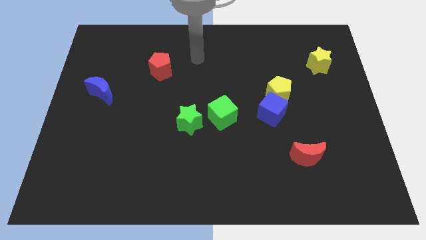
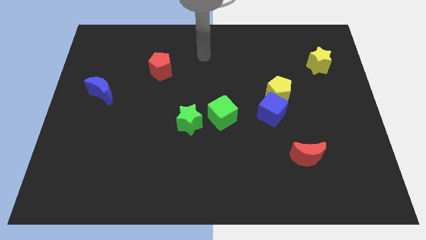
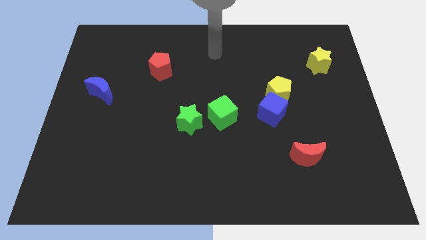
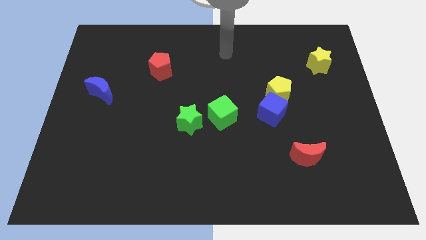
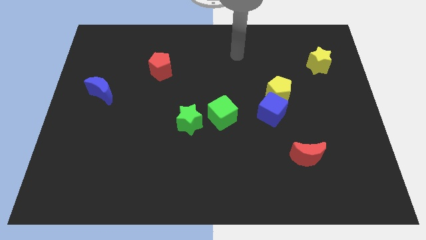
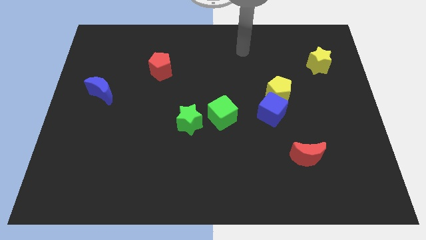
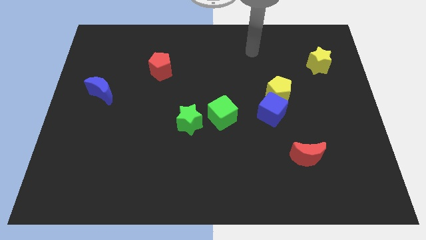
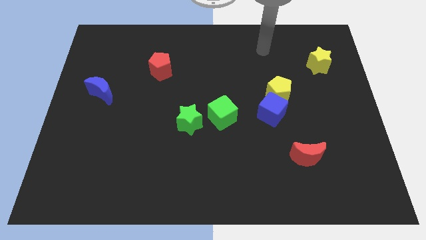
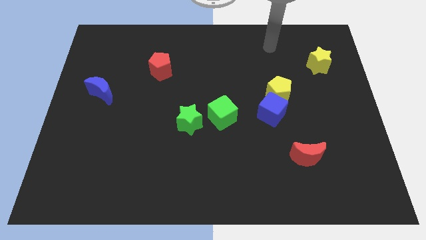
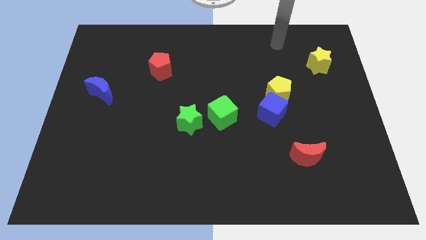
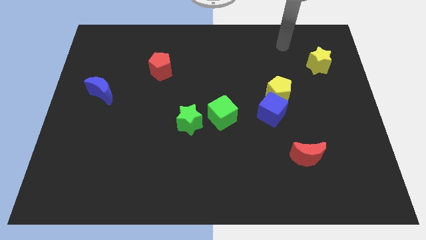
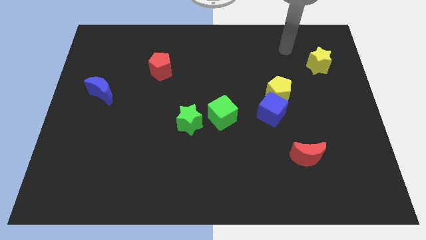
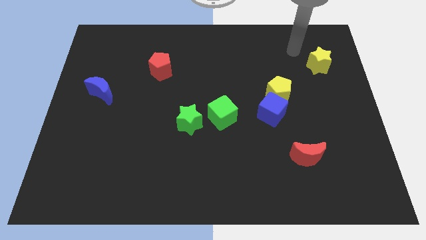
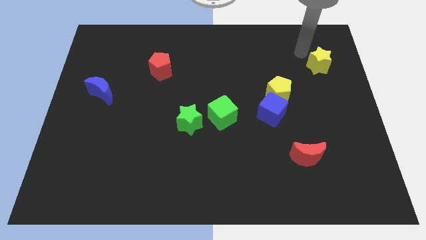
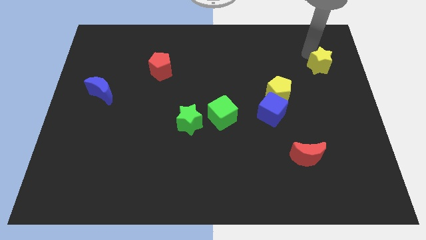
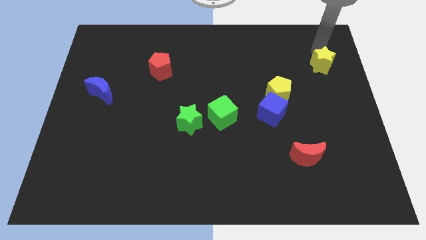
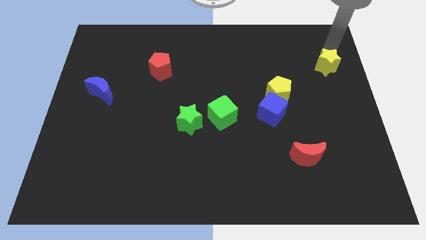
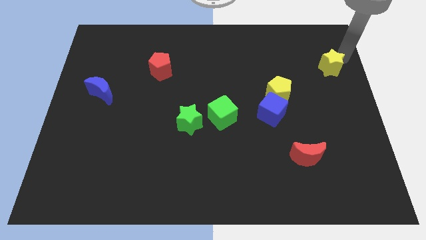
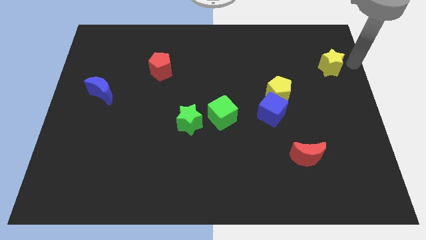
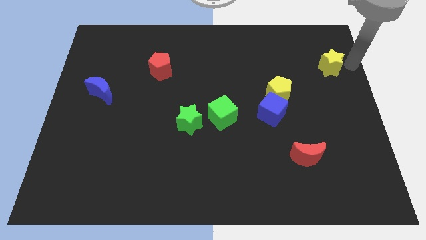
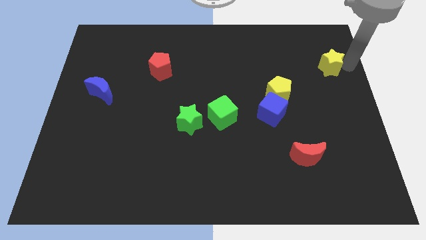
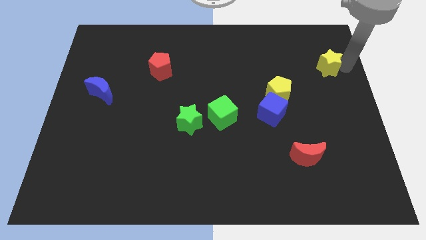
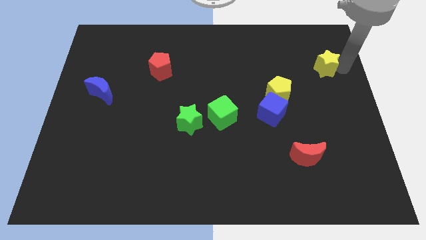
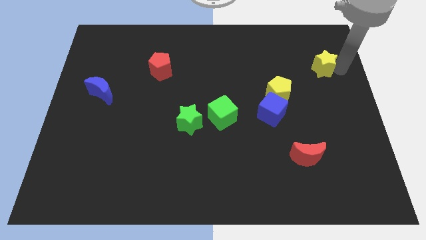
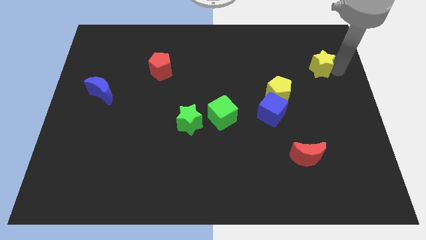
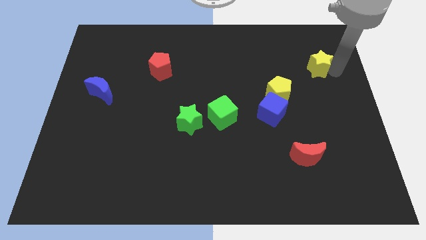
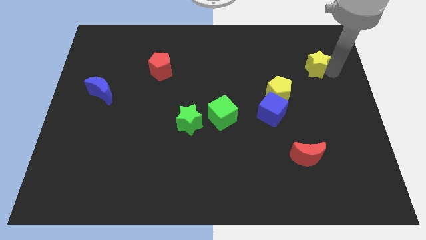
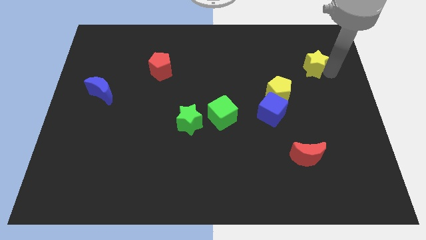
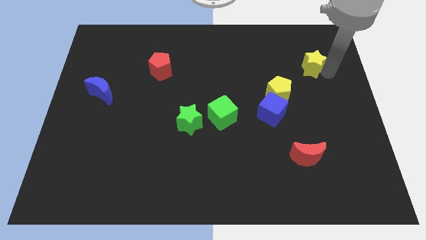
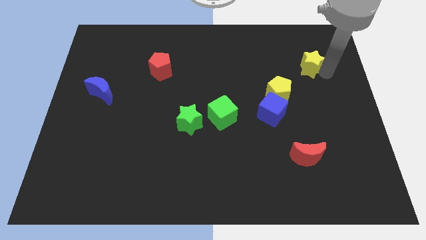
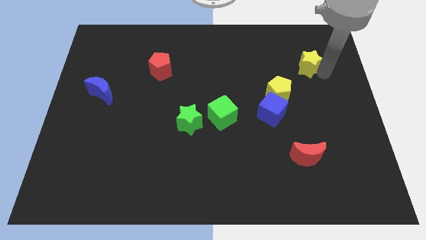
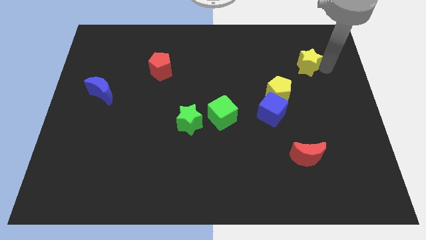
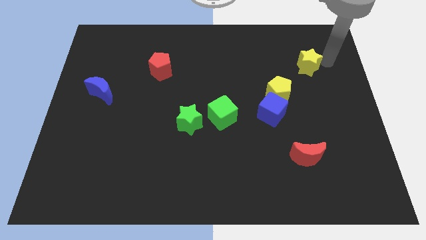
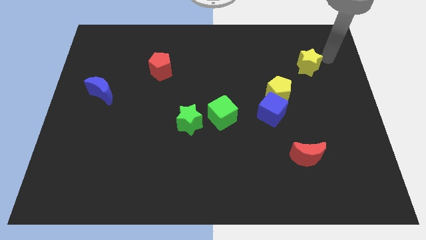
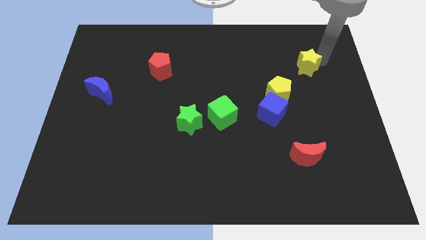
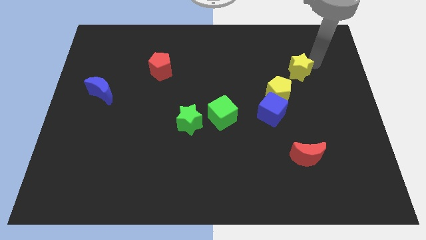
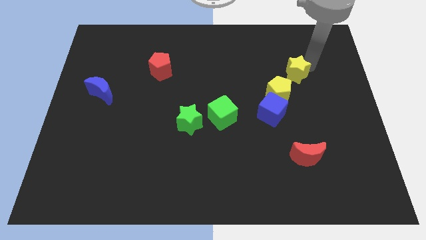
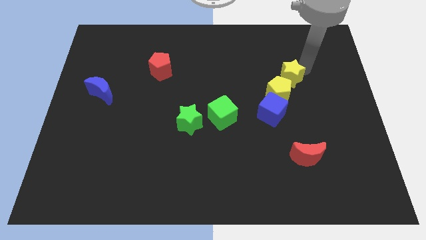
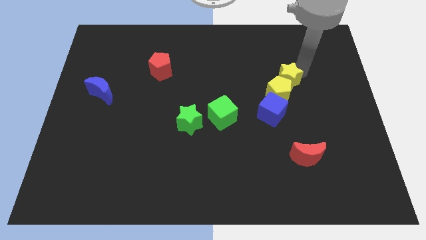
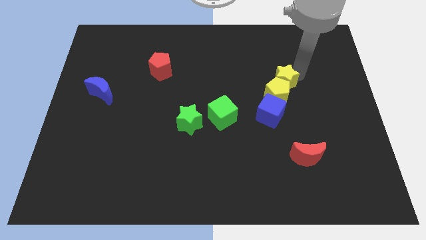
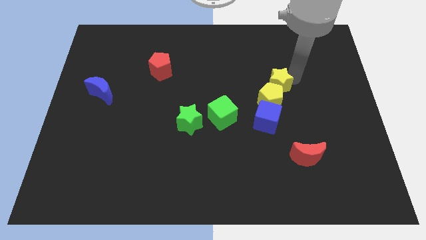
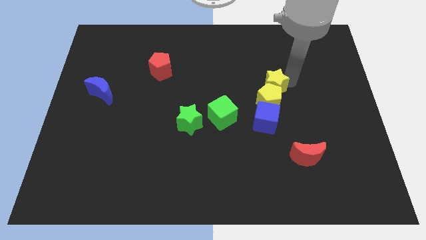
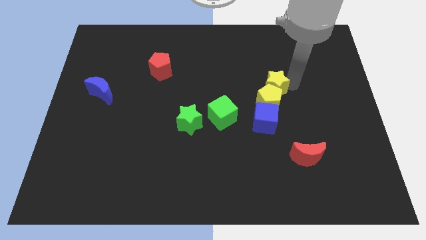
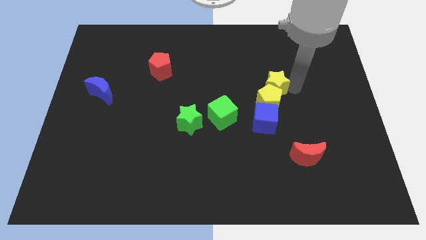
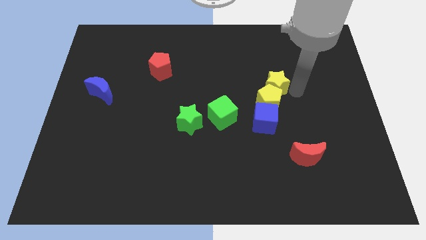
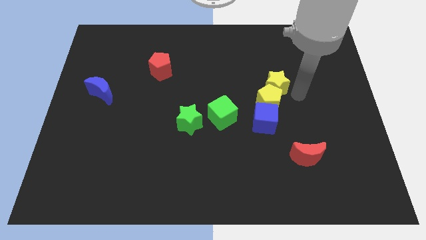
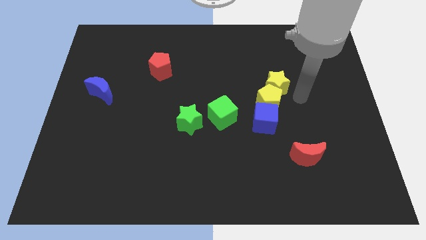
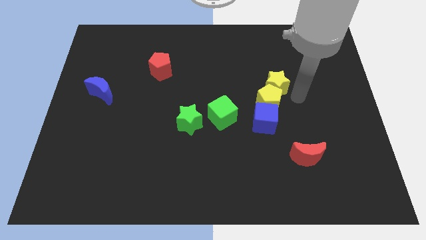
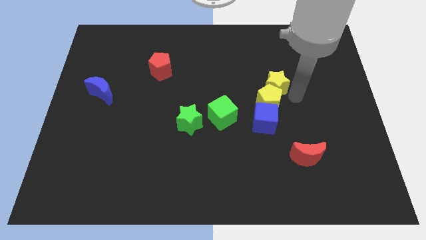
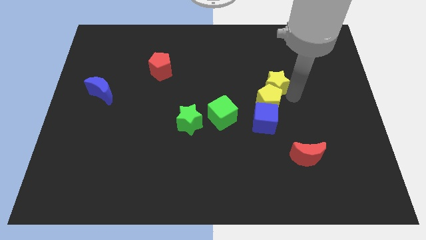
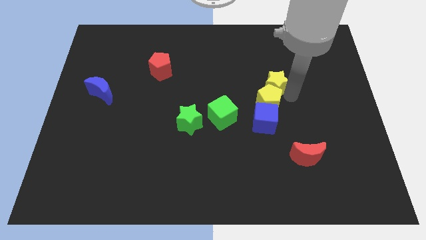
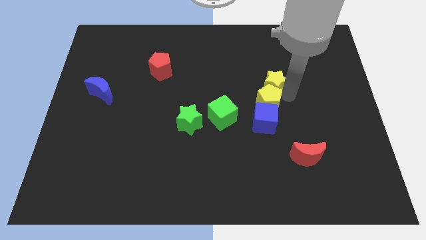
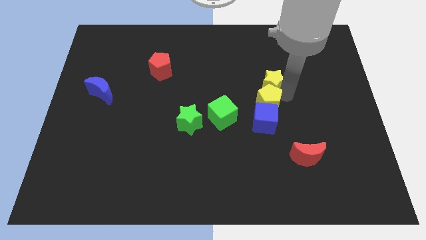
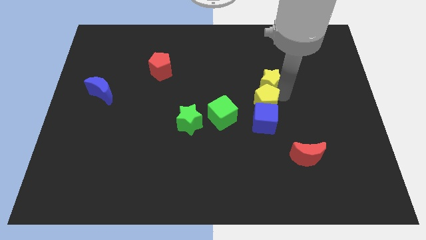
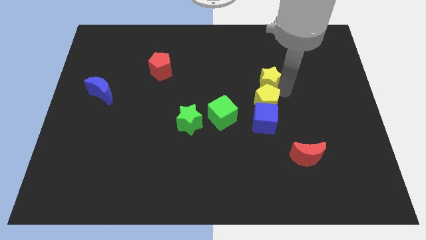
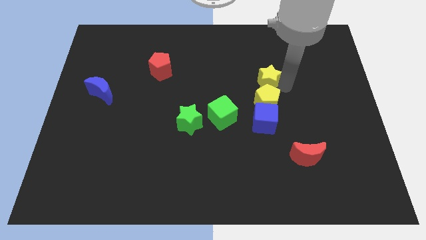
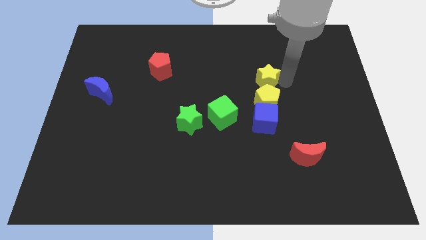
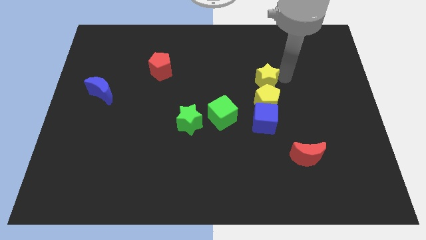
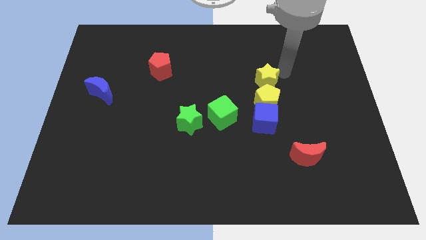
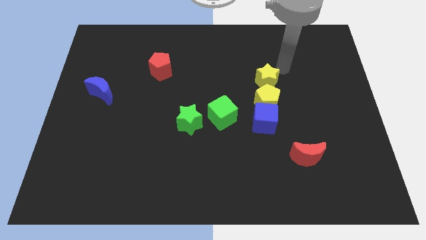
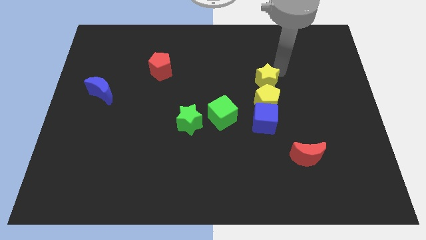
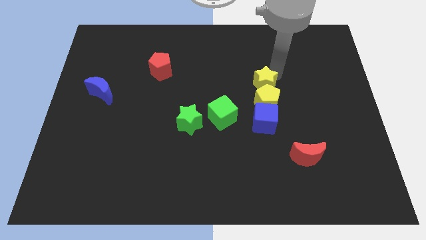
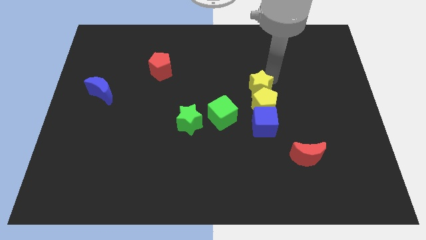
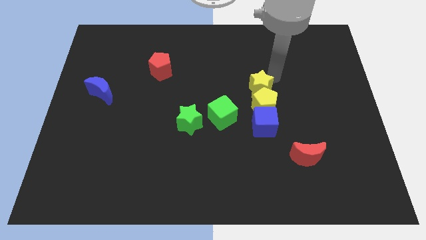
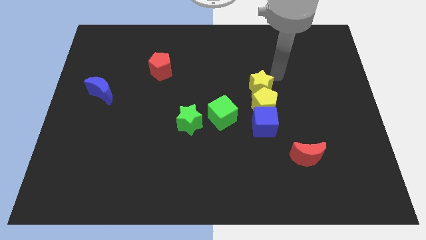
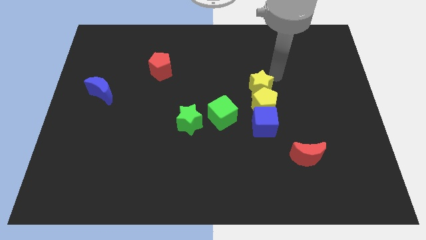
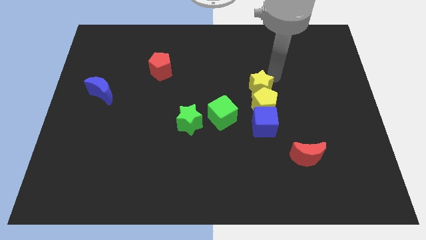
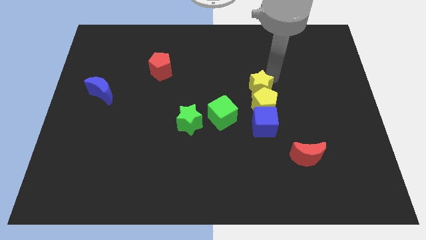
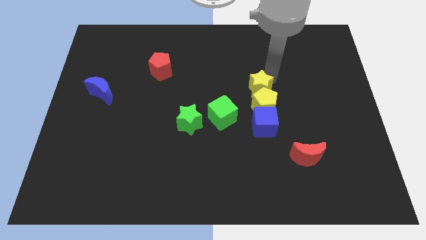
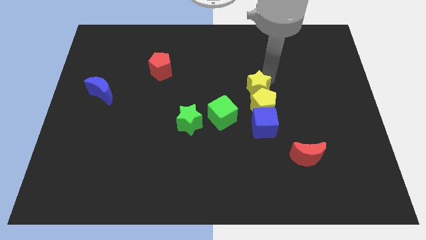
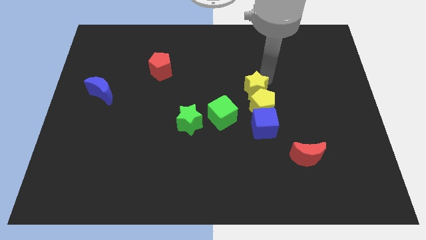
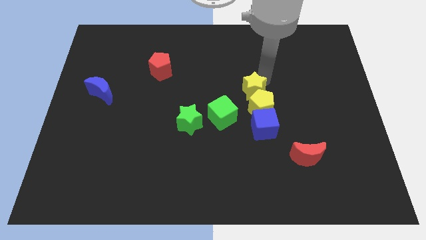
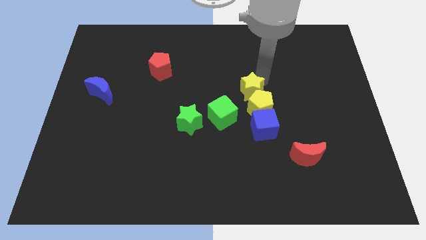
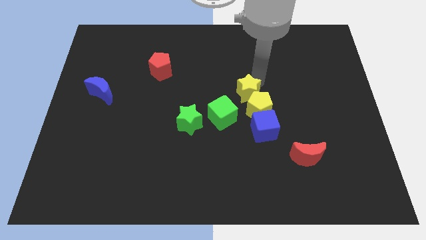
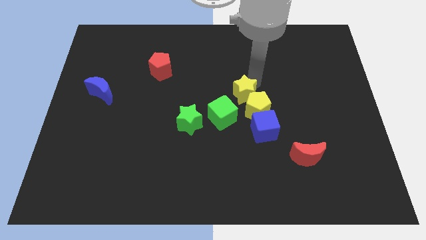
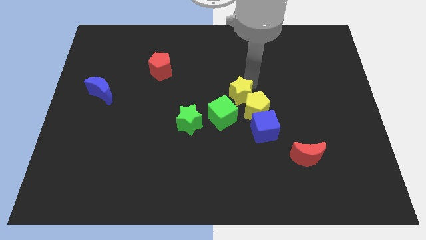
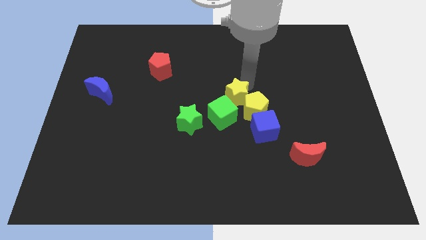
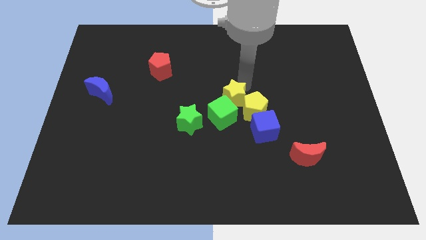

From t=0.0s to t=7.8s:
put the yellow star to the green cube

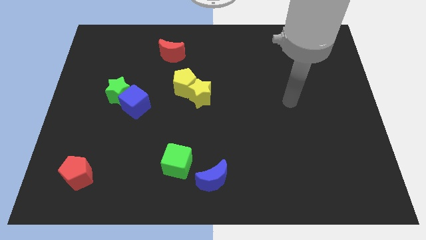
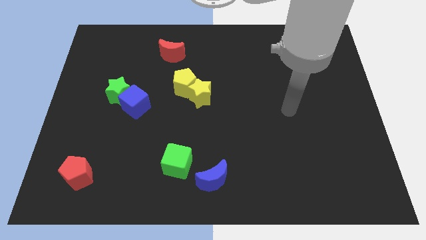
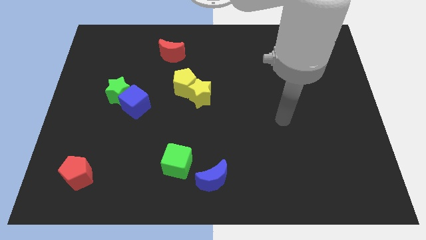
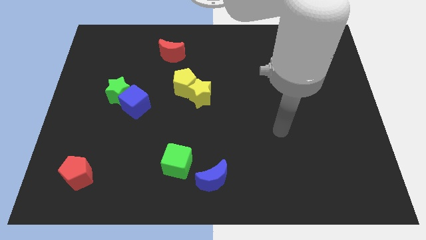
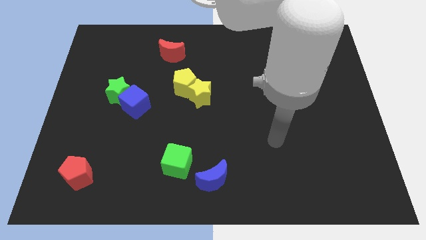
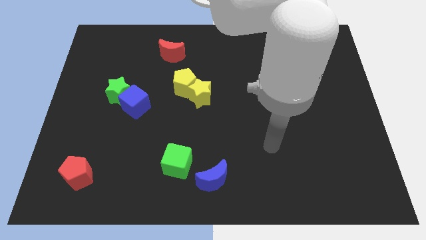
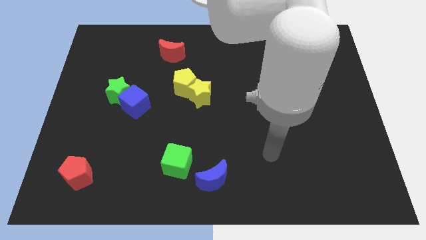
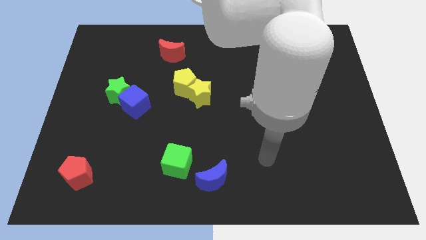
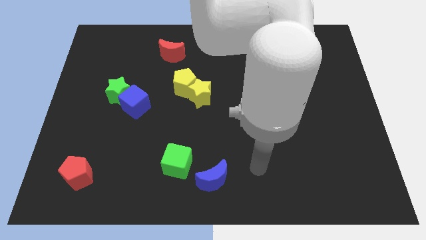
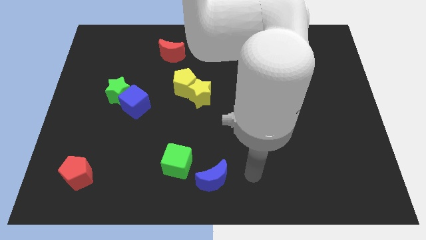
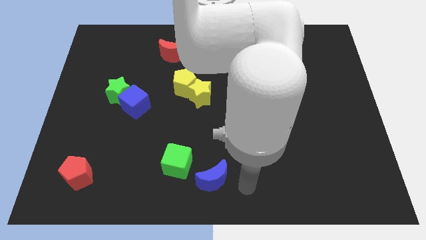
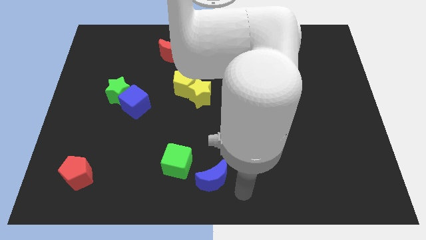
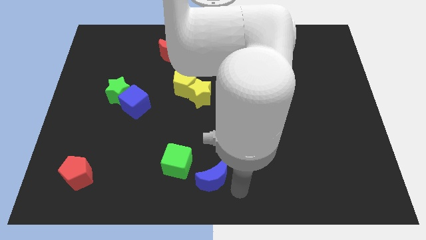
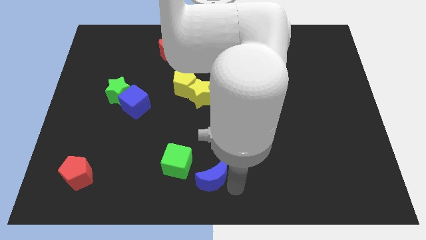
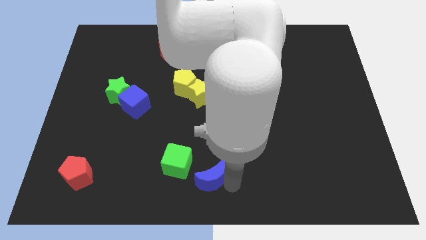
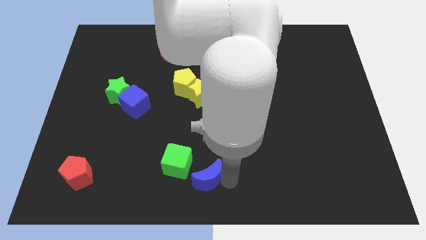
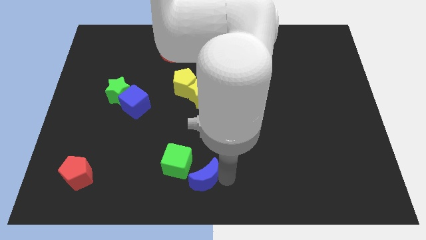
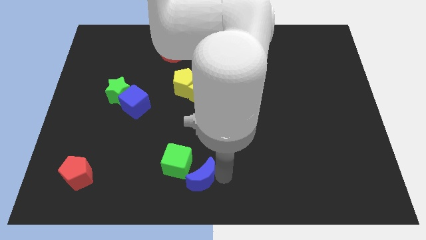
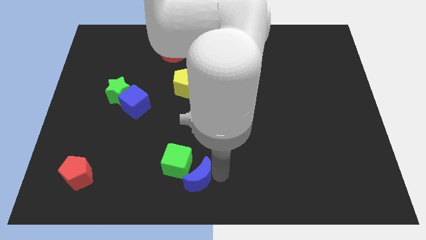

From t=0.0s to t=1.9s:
slide the blue moon to the green cube
